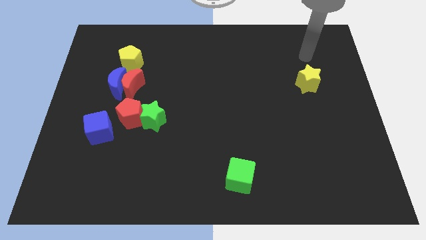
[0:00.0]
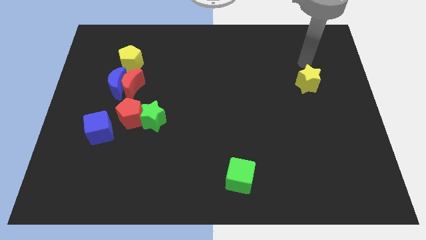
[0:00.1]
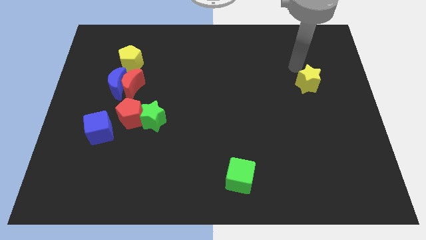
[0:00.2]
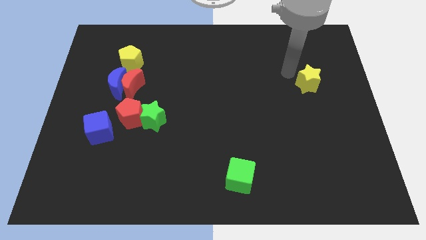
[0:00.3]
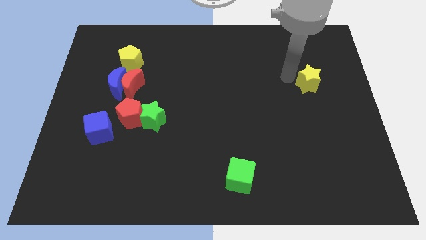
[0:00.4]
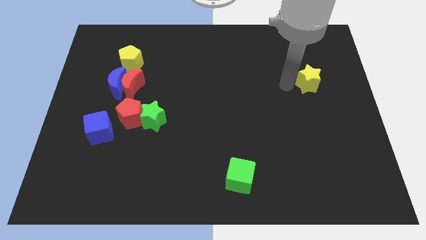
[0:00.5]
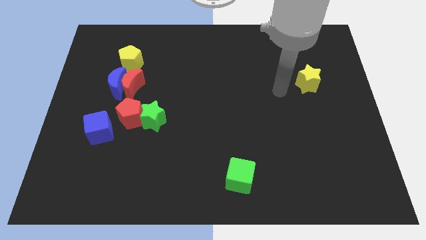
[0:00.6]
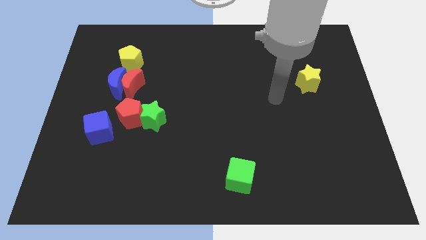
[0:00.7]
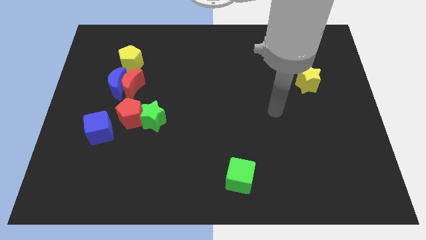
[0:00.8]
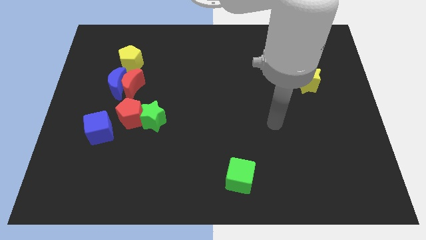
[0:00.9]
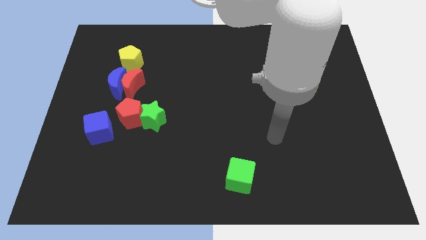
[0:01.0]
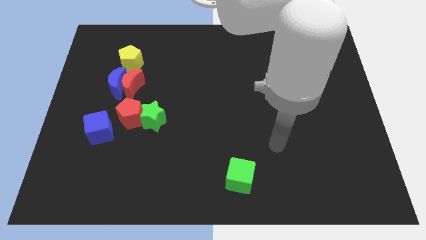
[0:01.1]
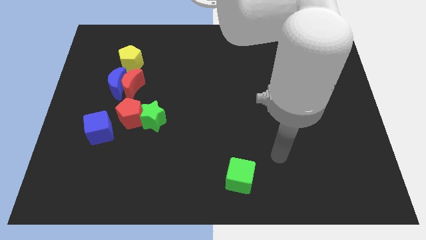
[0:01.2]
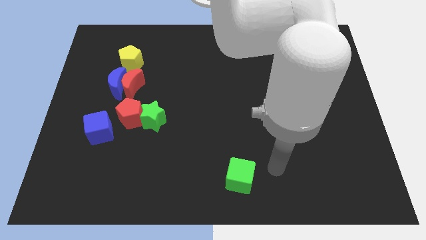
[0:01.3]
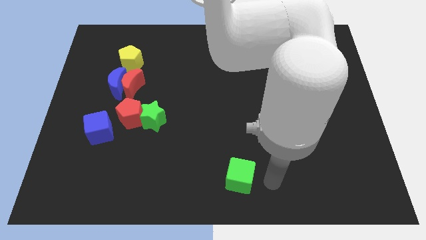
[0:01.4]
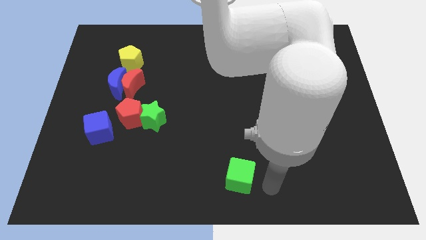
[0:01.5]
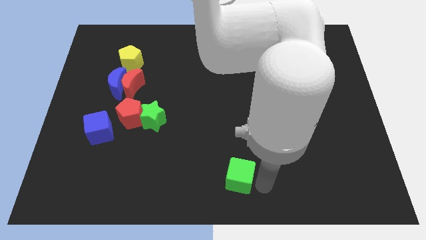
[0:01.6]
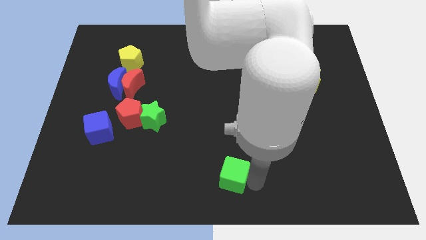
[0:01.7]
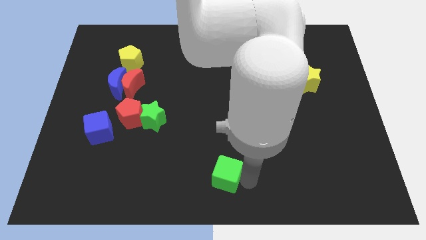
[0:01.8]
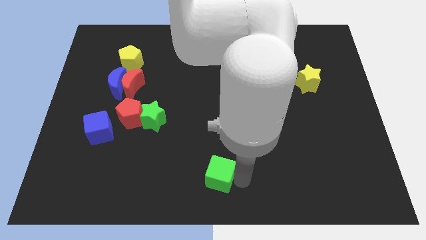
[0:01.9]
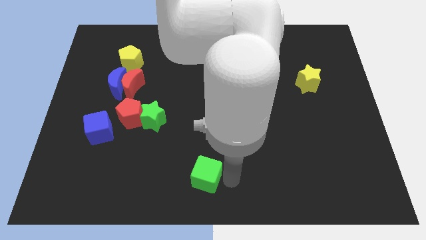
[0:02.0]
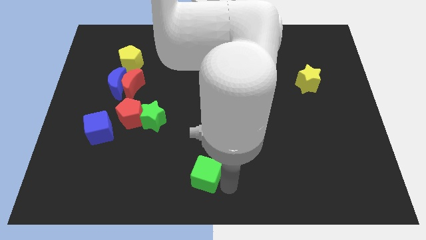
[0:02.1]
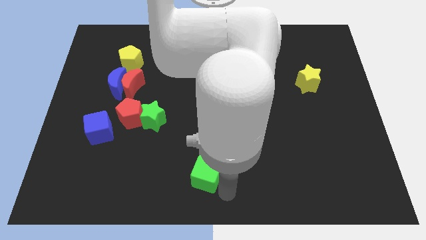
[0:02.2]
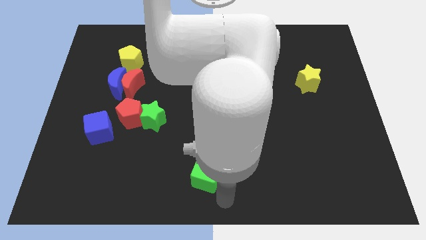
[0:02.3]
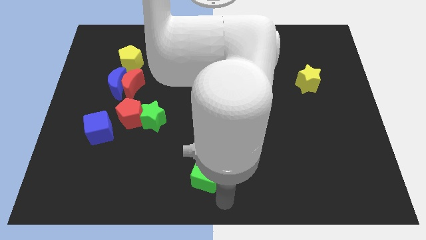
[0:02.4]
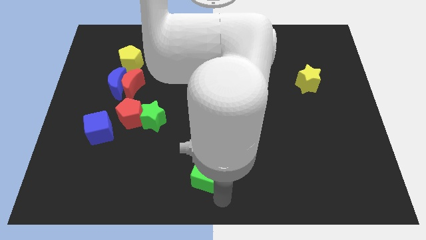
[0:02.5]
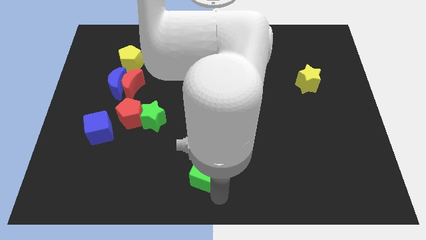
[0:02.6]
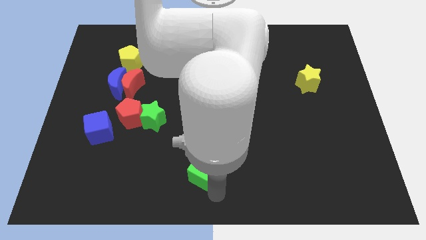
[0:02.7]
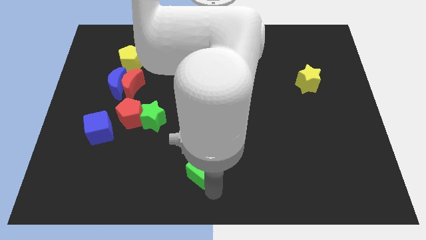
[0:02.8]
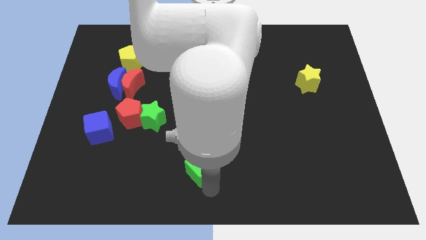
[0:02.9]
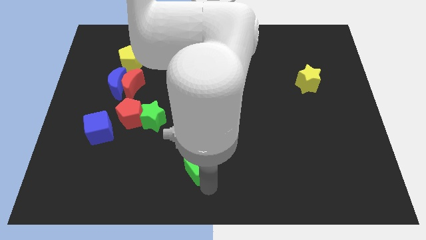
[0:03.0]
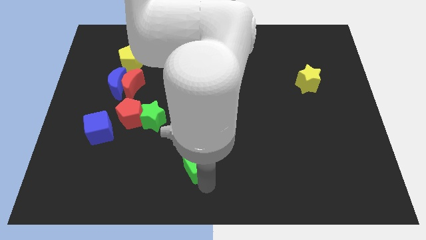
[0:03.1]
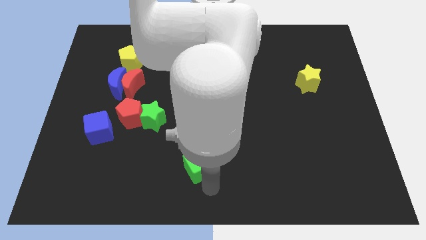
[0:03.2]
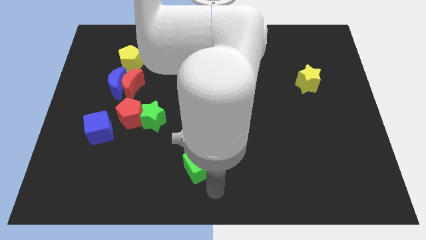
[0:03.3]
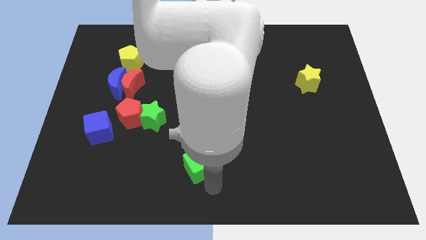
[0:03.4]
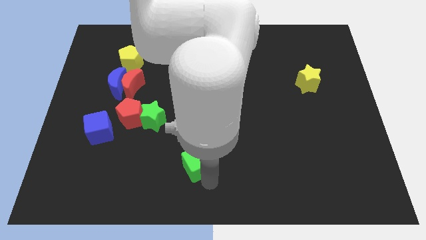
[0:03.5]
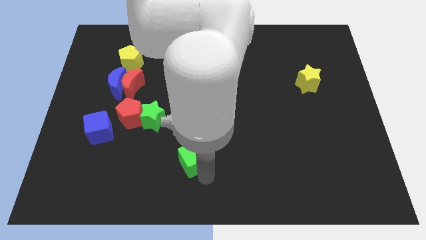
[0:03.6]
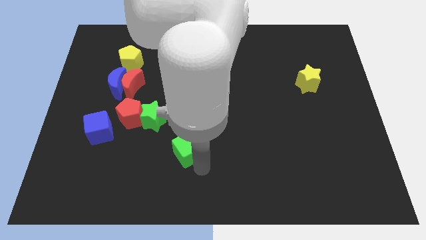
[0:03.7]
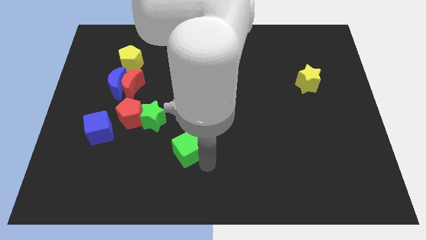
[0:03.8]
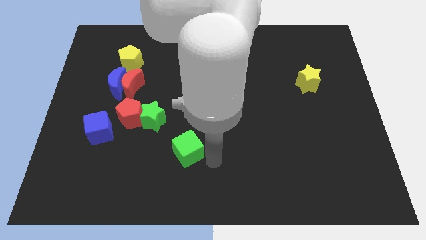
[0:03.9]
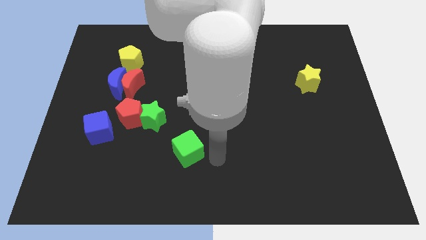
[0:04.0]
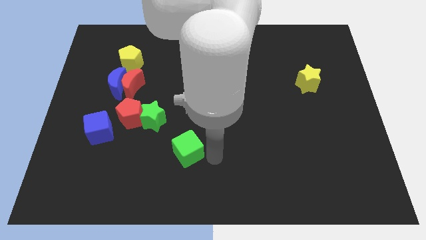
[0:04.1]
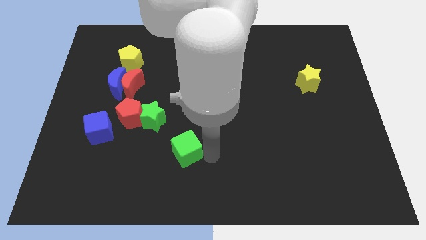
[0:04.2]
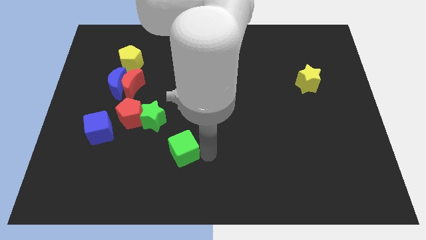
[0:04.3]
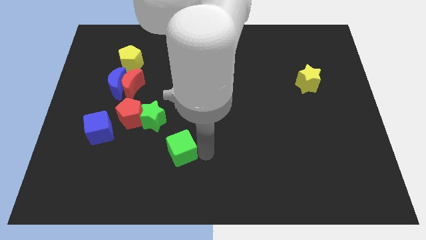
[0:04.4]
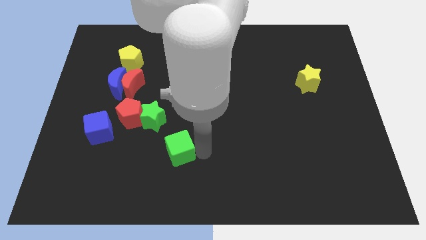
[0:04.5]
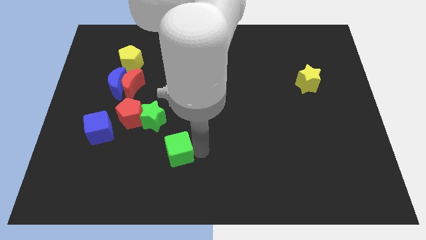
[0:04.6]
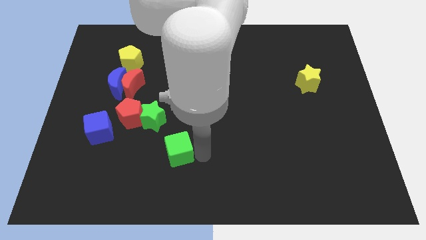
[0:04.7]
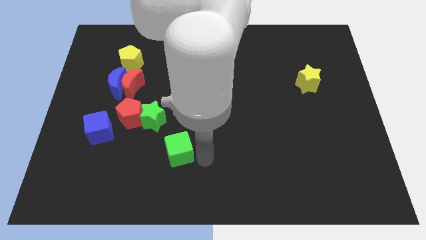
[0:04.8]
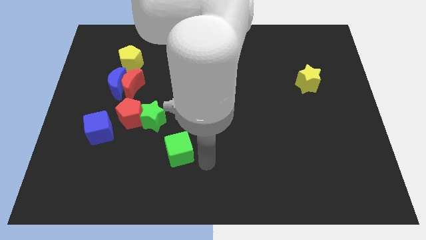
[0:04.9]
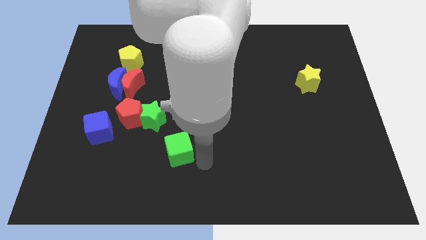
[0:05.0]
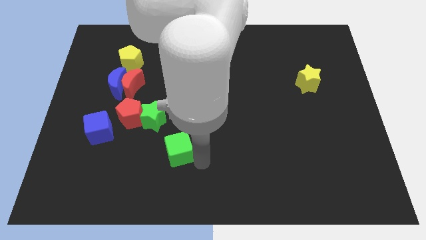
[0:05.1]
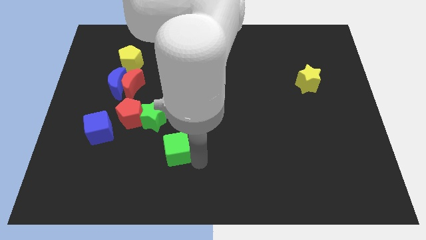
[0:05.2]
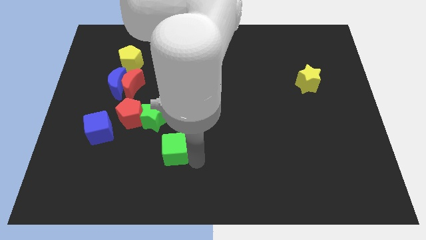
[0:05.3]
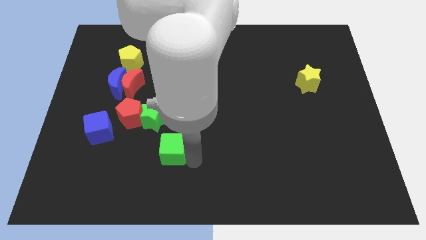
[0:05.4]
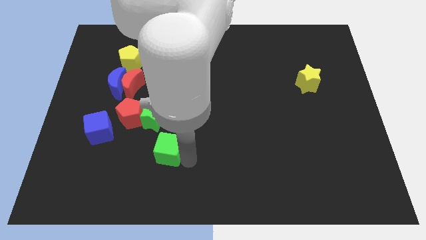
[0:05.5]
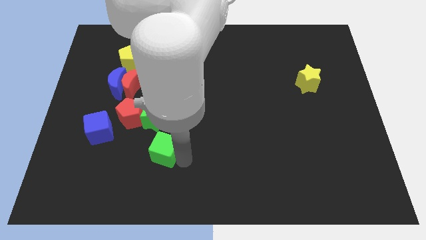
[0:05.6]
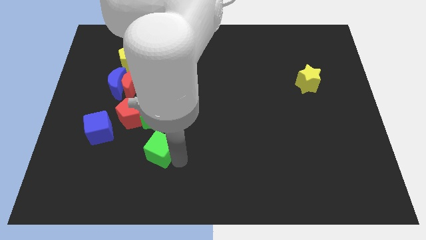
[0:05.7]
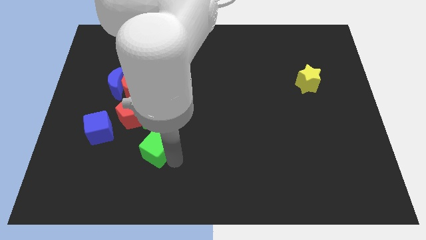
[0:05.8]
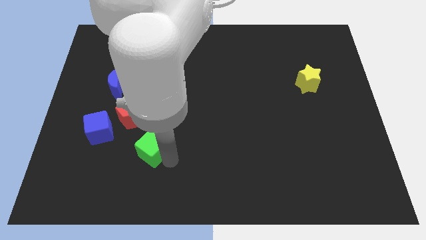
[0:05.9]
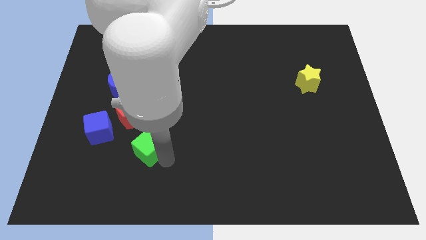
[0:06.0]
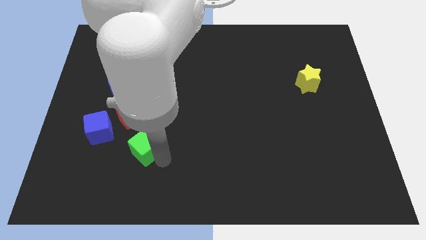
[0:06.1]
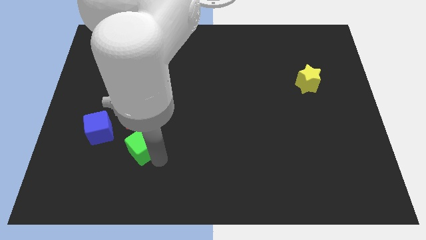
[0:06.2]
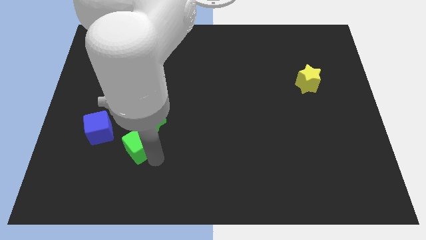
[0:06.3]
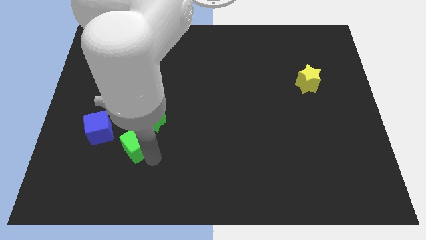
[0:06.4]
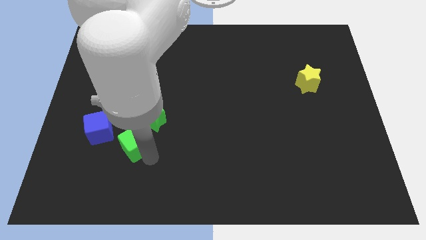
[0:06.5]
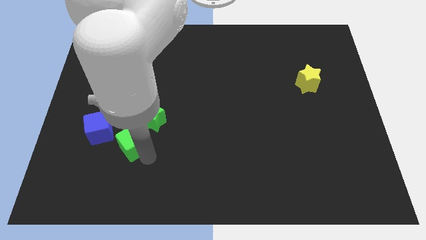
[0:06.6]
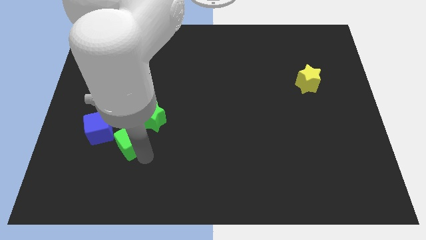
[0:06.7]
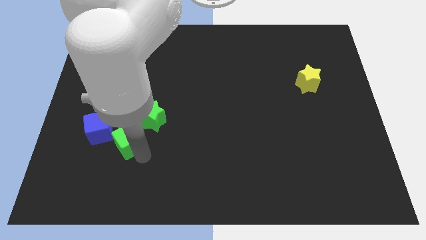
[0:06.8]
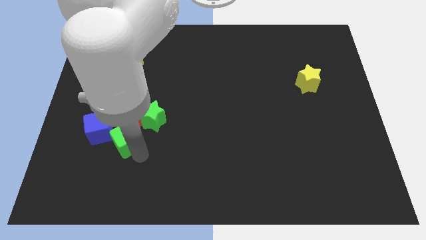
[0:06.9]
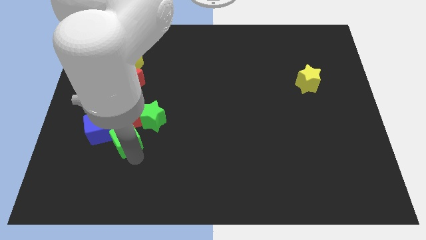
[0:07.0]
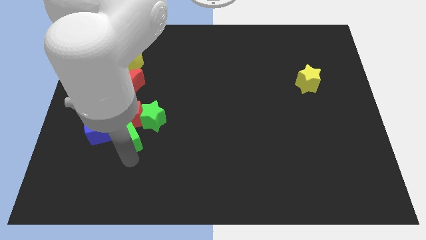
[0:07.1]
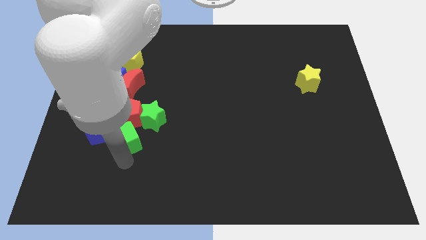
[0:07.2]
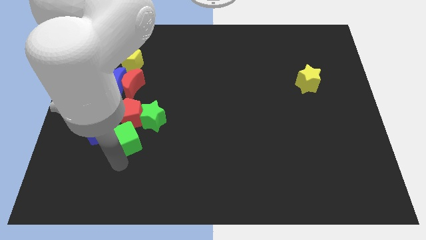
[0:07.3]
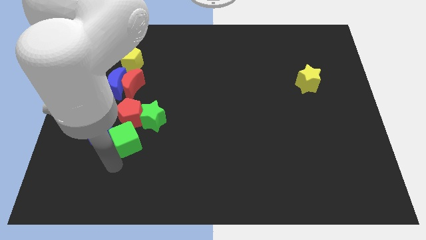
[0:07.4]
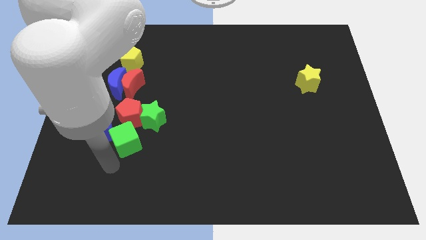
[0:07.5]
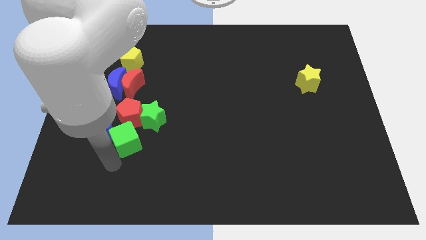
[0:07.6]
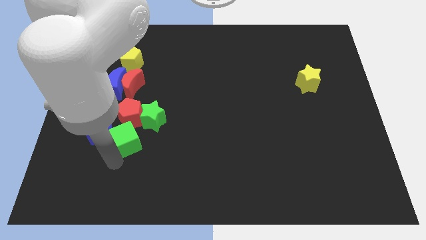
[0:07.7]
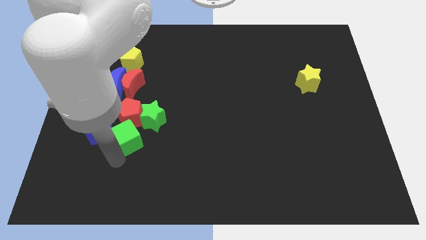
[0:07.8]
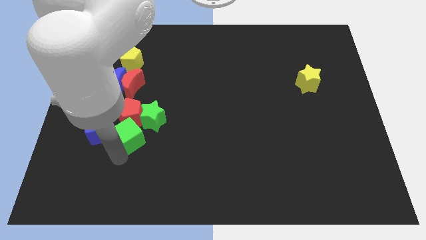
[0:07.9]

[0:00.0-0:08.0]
put the green cube next to the red pentagon
